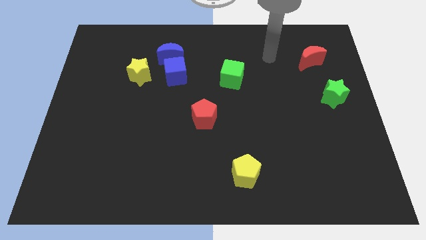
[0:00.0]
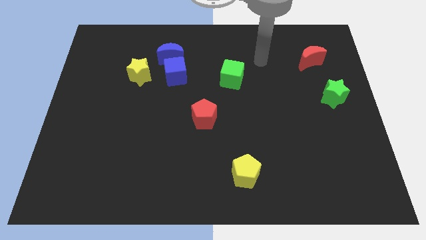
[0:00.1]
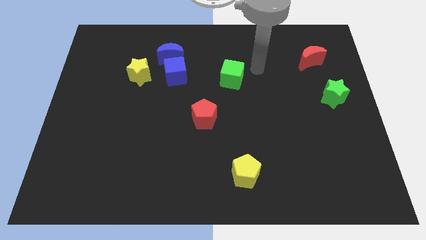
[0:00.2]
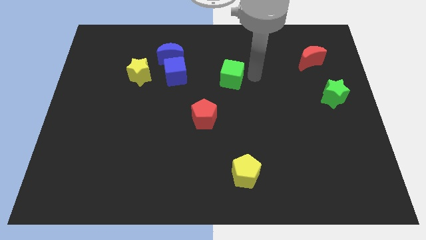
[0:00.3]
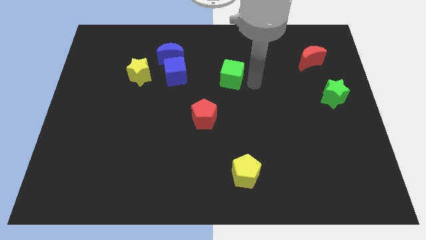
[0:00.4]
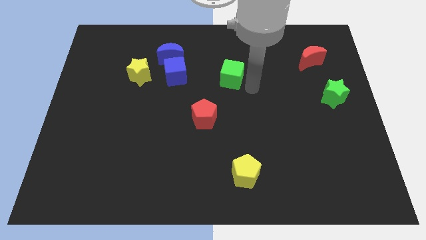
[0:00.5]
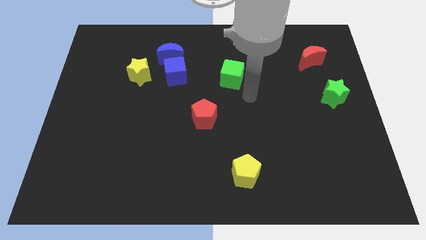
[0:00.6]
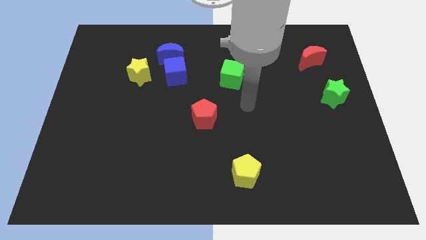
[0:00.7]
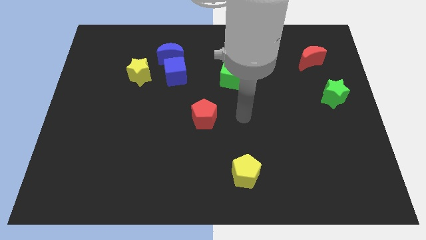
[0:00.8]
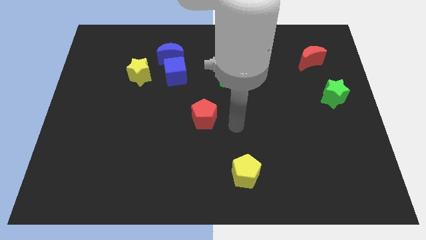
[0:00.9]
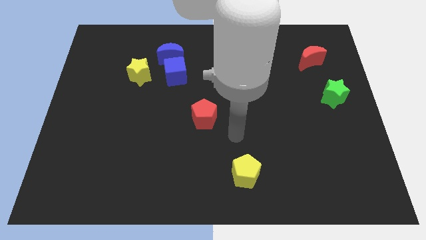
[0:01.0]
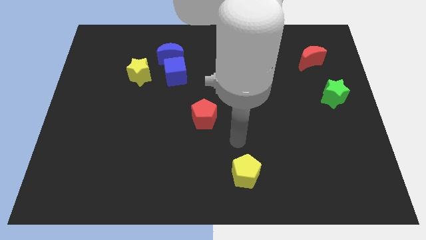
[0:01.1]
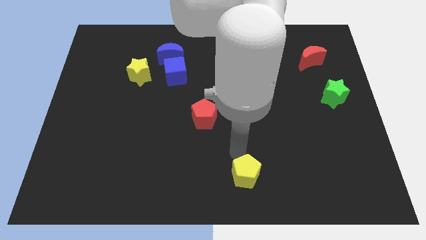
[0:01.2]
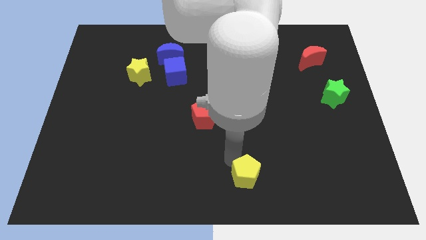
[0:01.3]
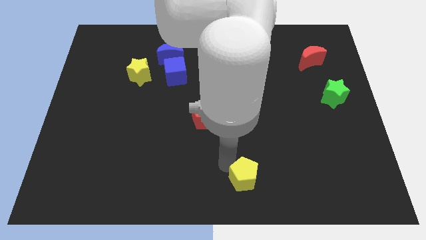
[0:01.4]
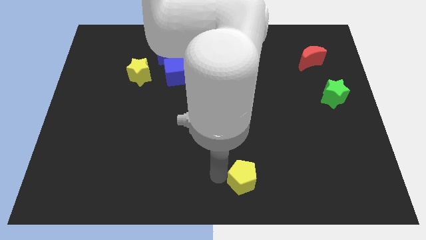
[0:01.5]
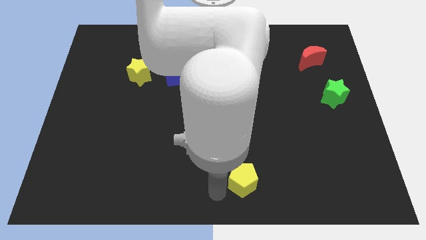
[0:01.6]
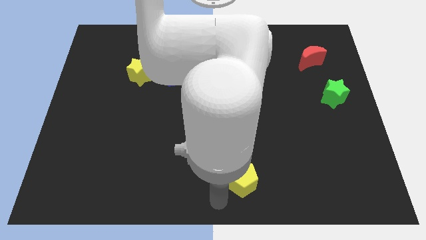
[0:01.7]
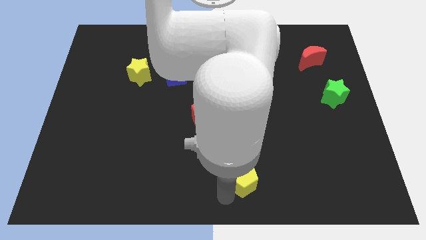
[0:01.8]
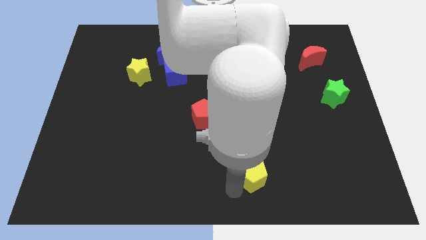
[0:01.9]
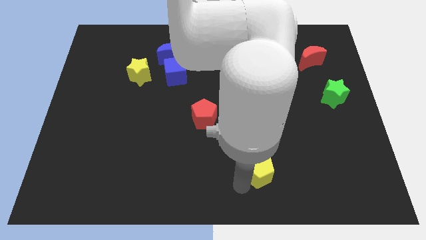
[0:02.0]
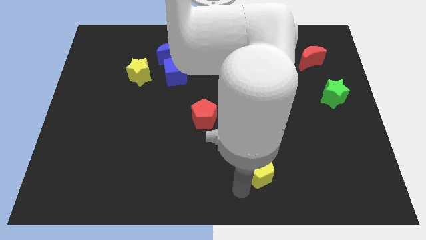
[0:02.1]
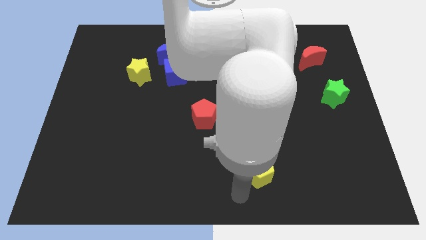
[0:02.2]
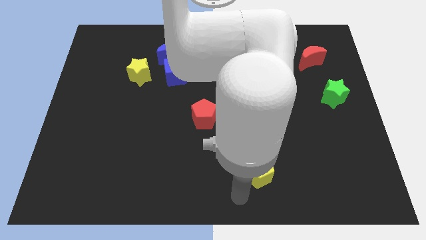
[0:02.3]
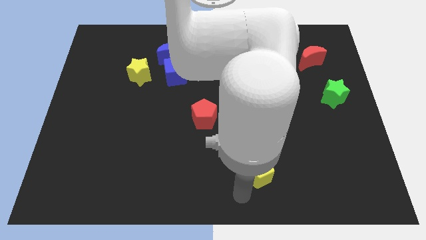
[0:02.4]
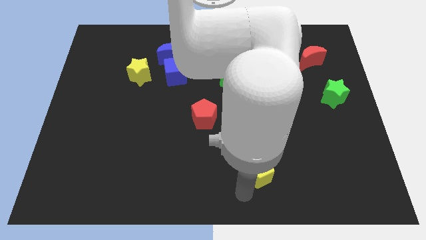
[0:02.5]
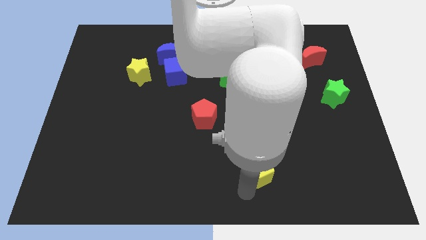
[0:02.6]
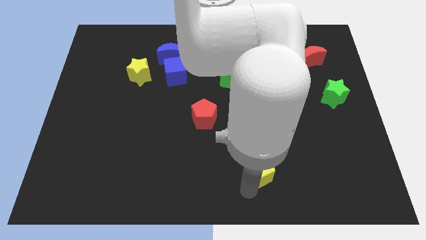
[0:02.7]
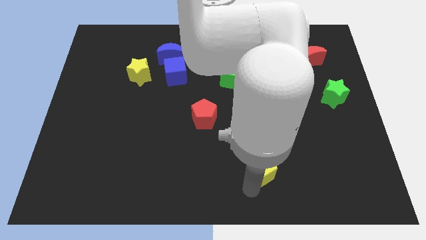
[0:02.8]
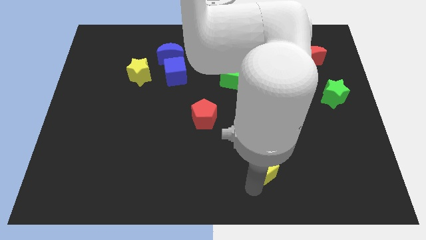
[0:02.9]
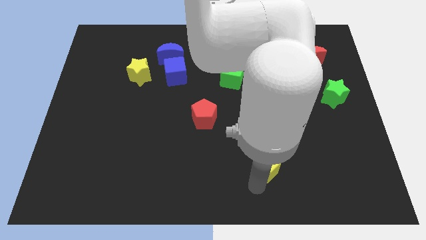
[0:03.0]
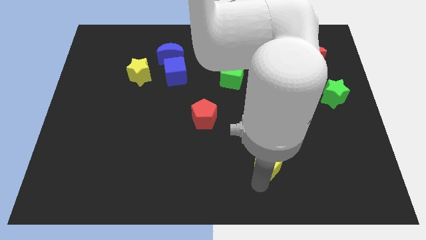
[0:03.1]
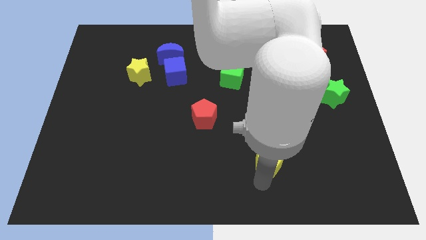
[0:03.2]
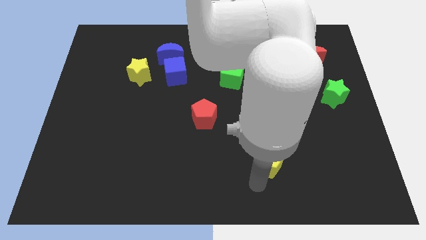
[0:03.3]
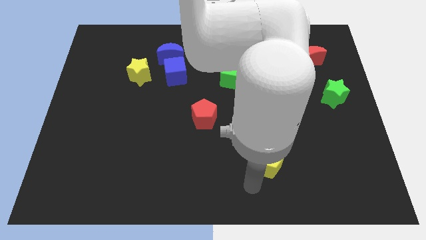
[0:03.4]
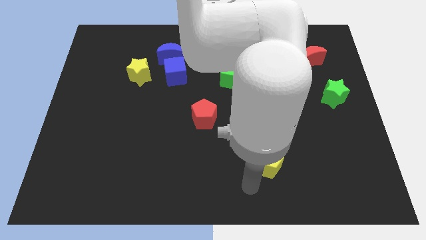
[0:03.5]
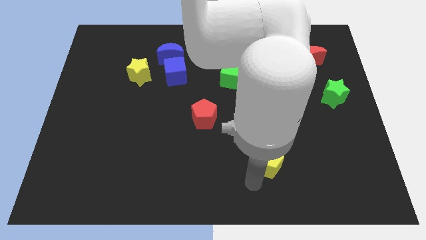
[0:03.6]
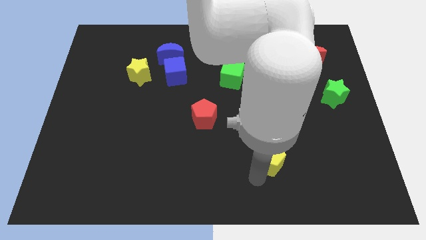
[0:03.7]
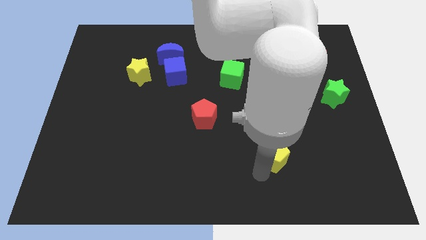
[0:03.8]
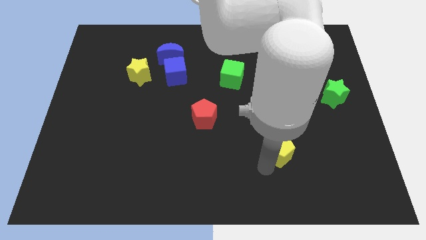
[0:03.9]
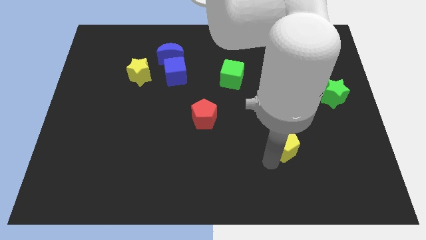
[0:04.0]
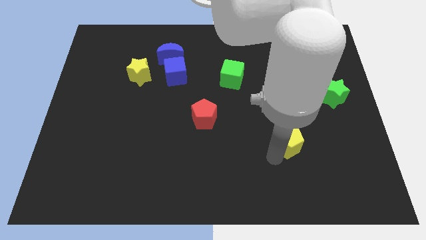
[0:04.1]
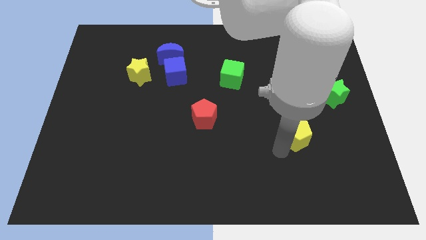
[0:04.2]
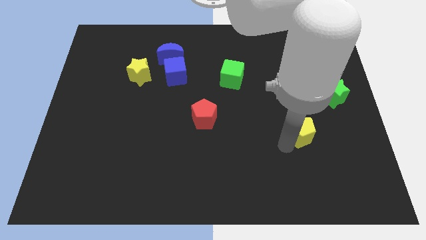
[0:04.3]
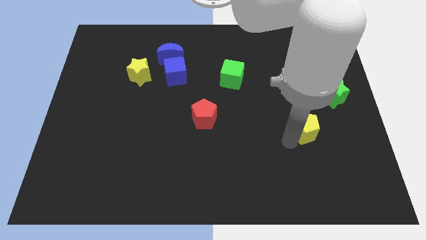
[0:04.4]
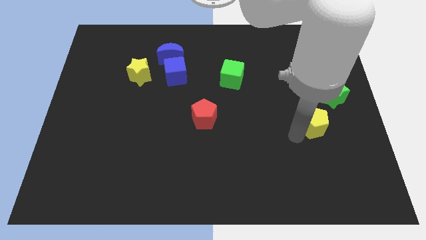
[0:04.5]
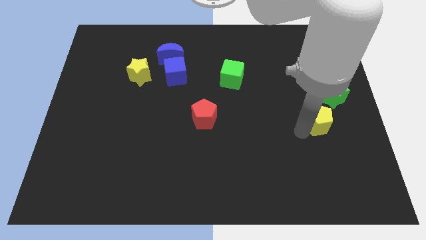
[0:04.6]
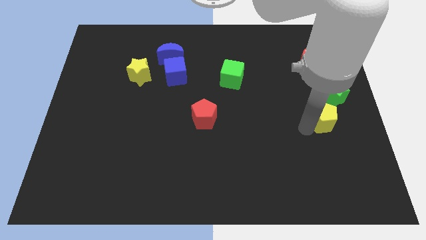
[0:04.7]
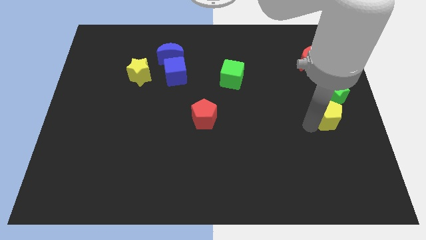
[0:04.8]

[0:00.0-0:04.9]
slide the yellow pentagon to the right side

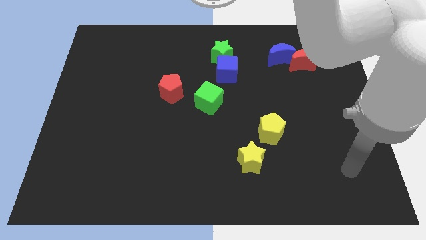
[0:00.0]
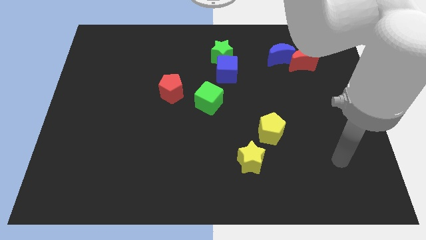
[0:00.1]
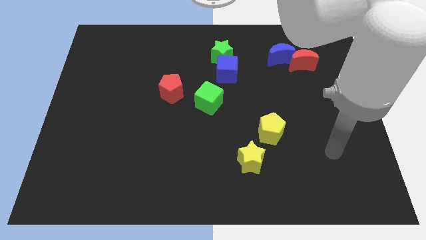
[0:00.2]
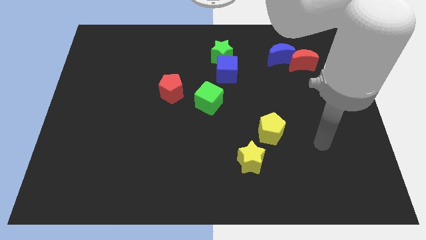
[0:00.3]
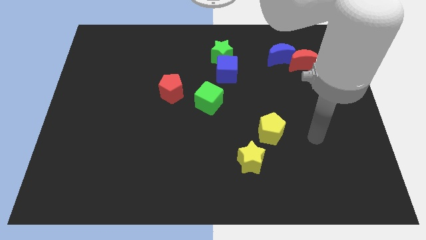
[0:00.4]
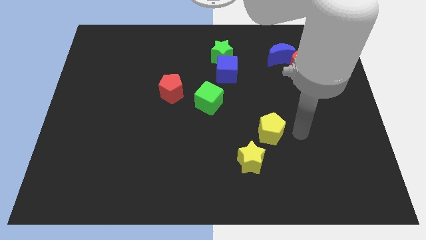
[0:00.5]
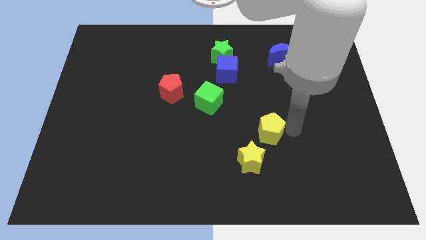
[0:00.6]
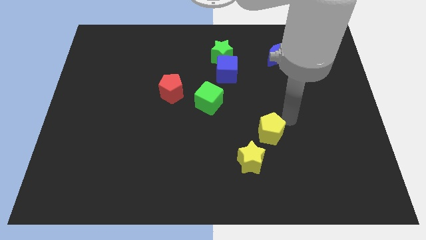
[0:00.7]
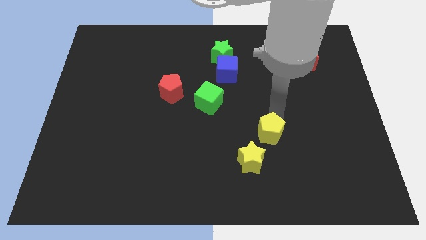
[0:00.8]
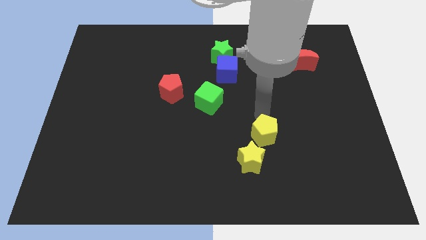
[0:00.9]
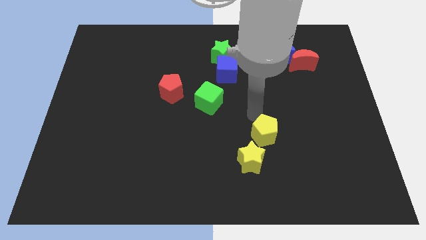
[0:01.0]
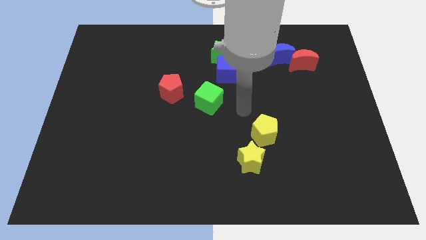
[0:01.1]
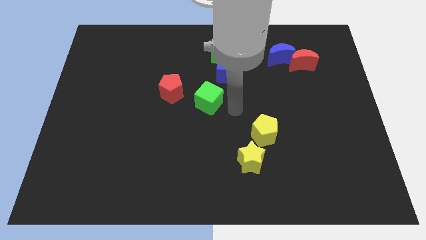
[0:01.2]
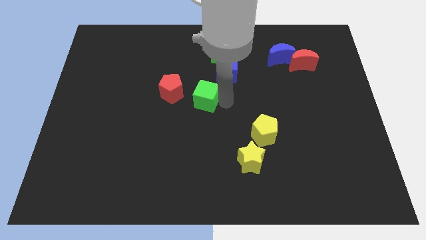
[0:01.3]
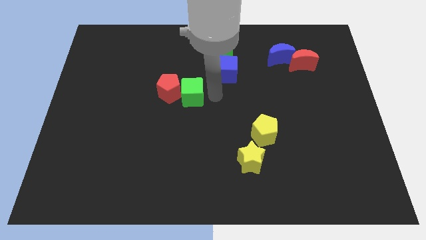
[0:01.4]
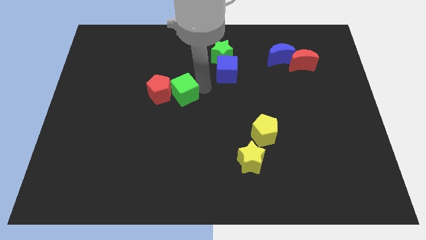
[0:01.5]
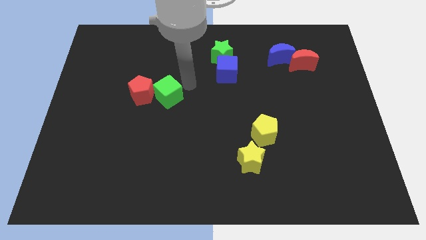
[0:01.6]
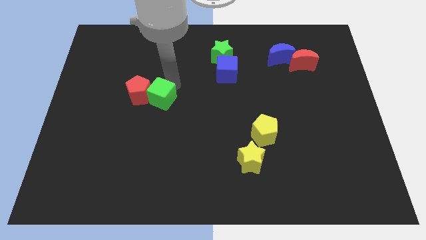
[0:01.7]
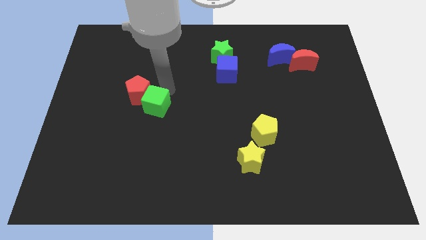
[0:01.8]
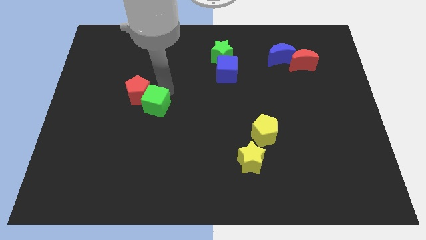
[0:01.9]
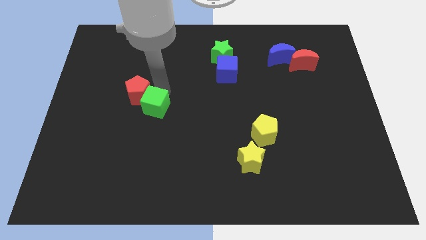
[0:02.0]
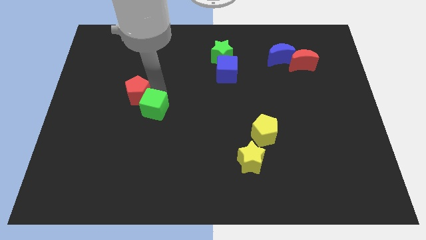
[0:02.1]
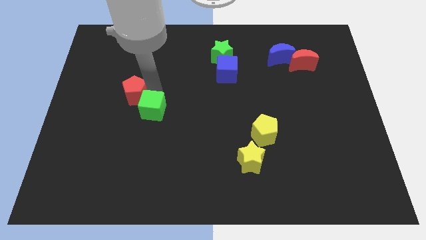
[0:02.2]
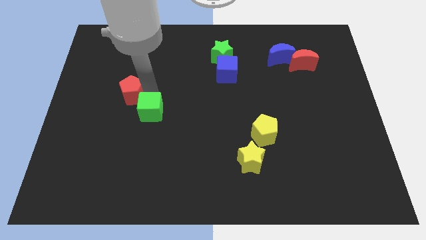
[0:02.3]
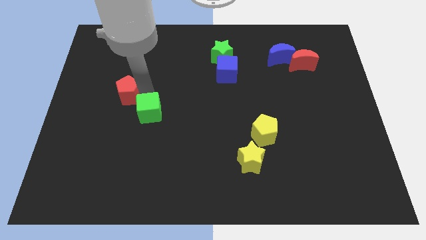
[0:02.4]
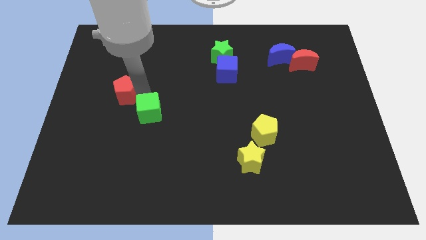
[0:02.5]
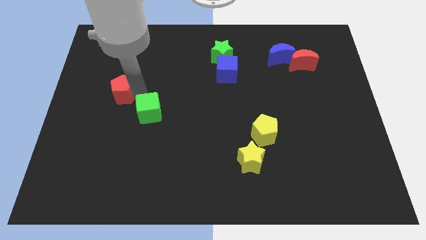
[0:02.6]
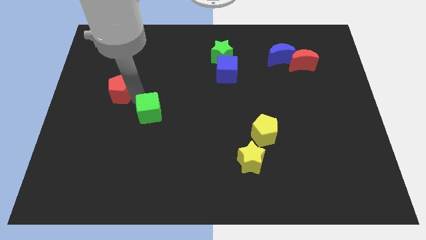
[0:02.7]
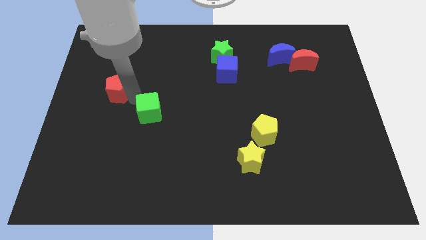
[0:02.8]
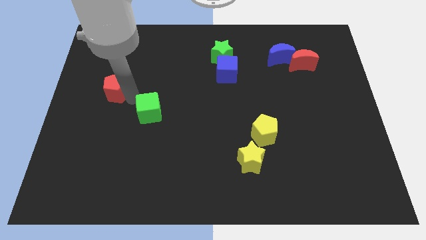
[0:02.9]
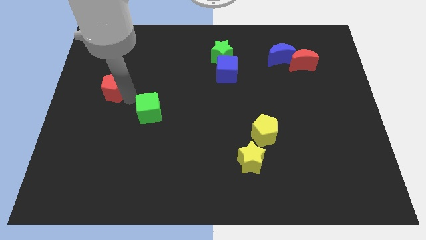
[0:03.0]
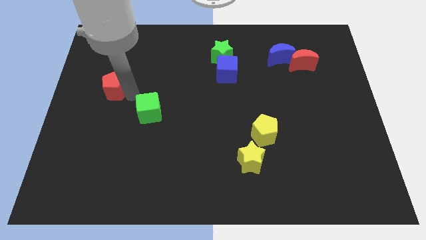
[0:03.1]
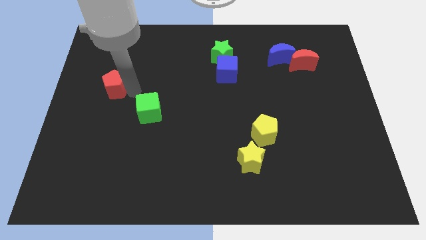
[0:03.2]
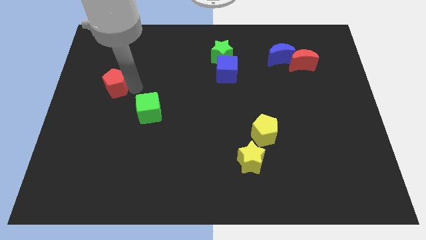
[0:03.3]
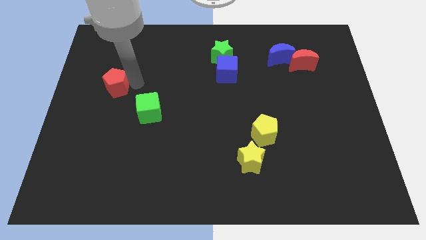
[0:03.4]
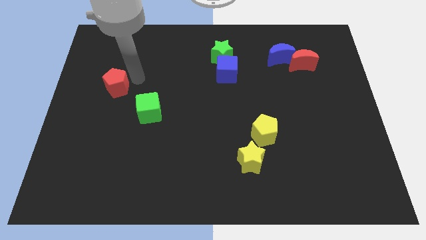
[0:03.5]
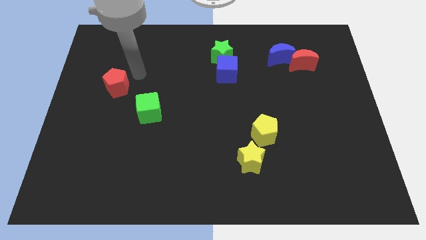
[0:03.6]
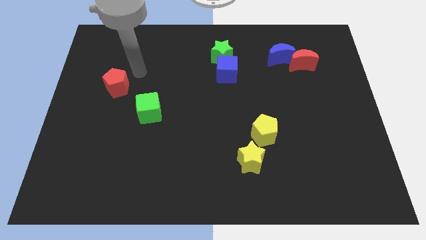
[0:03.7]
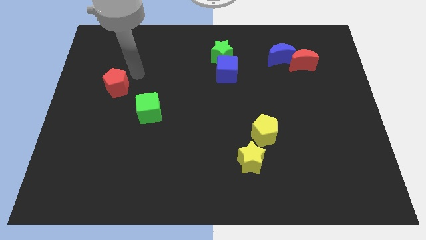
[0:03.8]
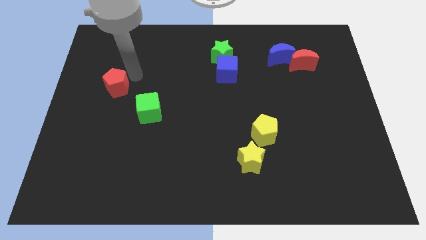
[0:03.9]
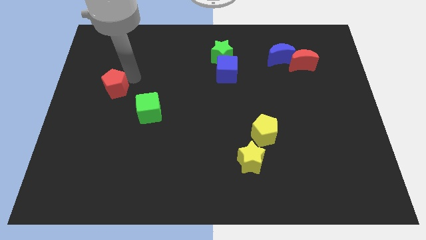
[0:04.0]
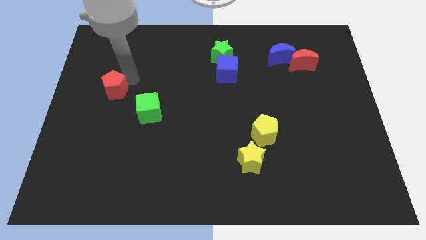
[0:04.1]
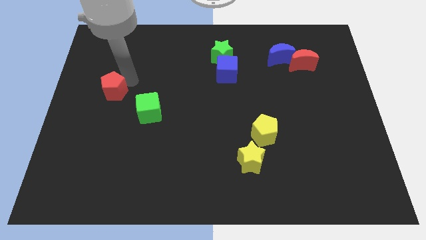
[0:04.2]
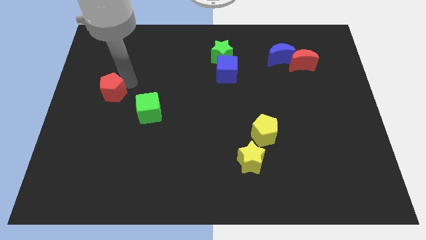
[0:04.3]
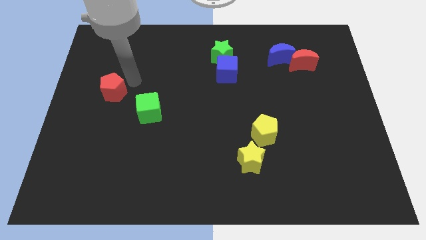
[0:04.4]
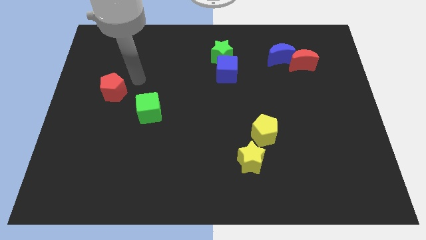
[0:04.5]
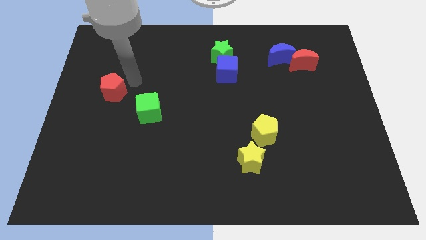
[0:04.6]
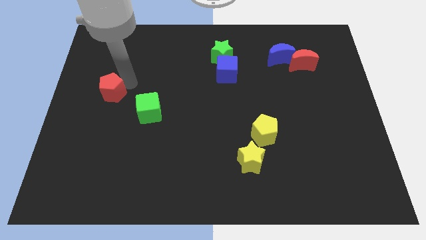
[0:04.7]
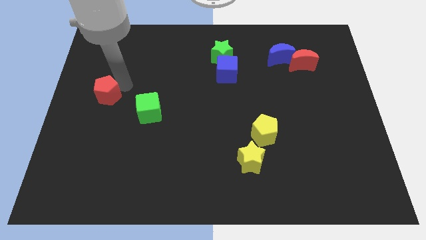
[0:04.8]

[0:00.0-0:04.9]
put the red pentagon to the left side
